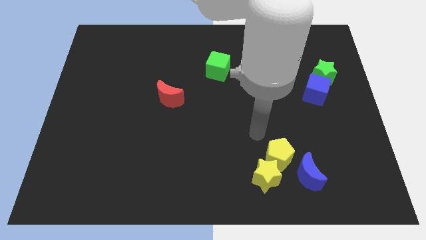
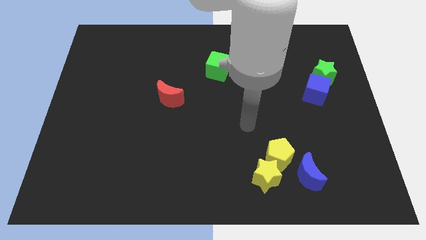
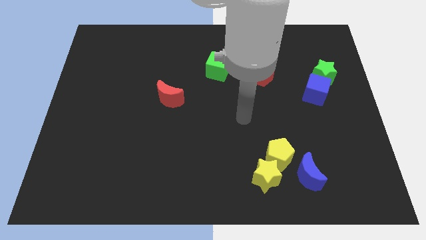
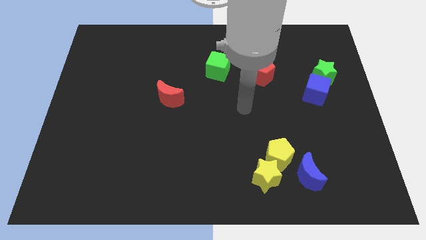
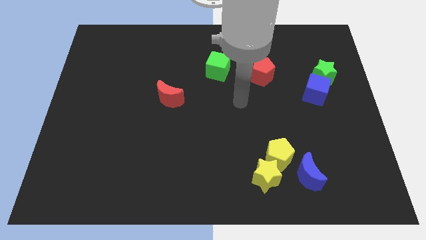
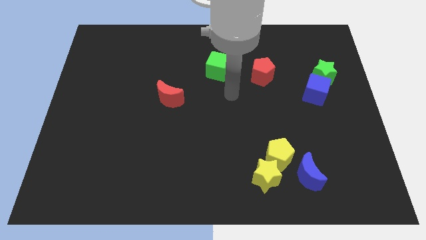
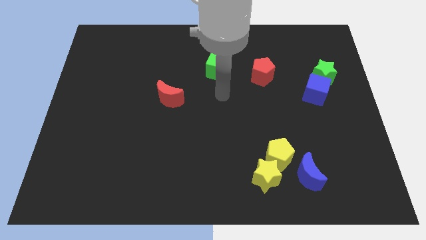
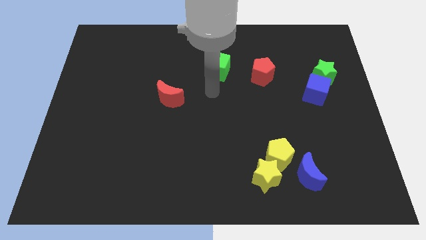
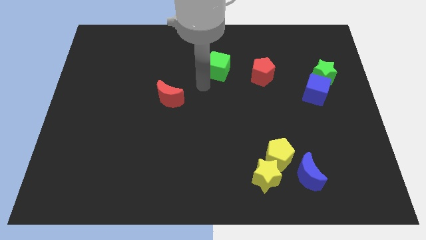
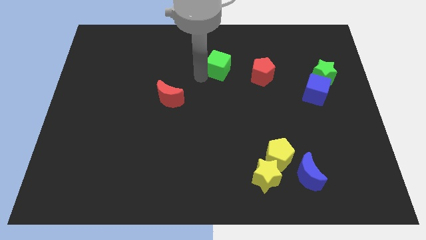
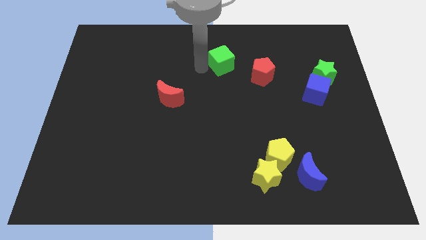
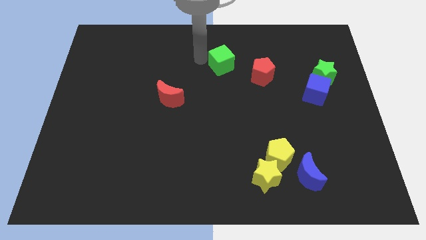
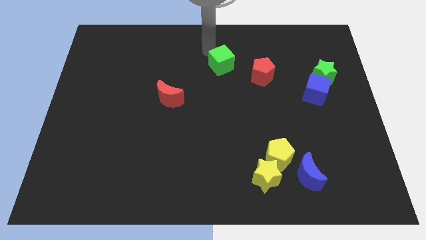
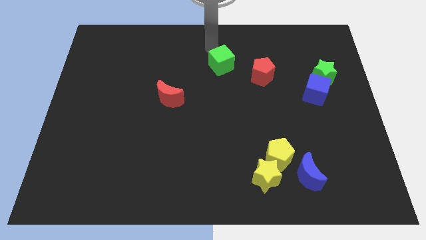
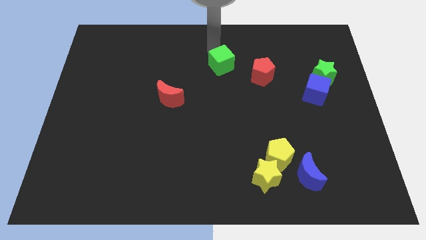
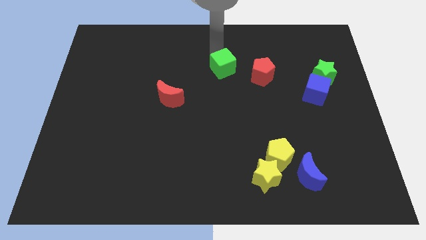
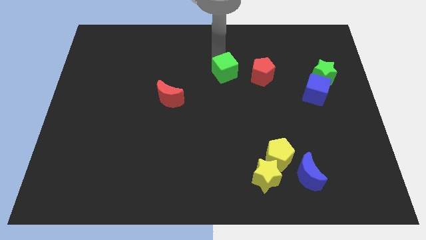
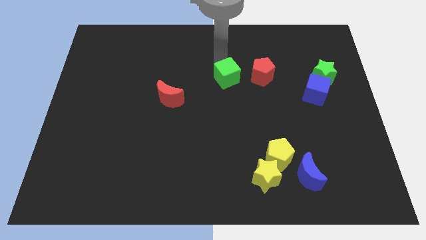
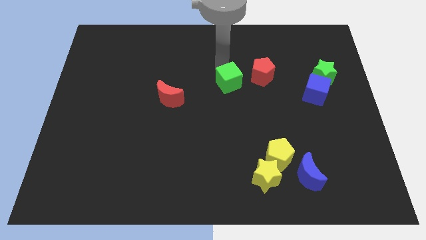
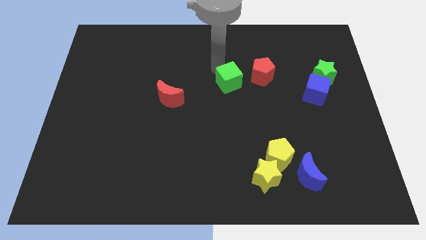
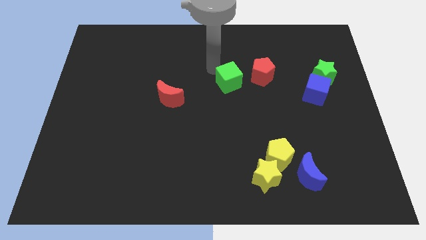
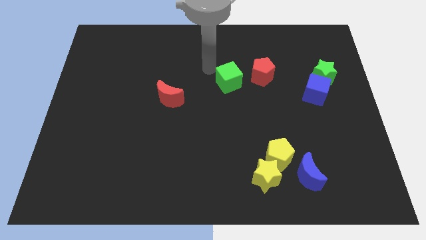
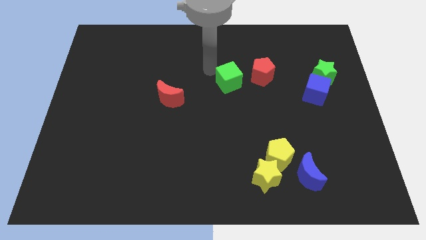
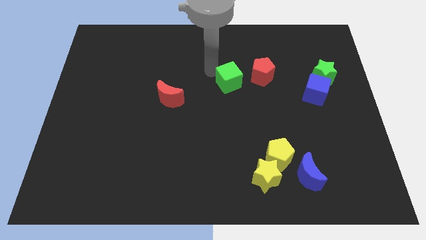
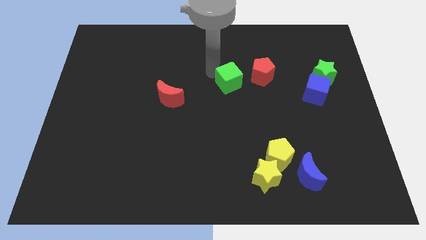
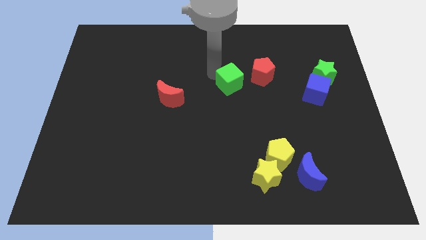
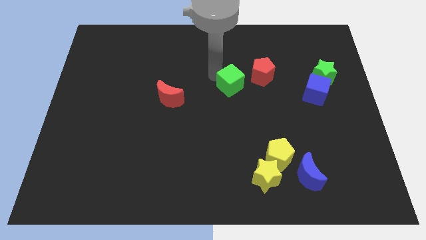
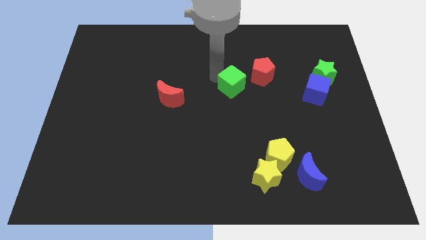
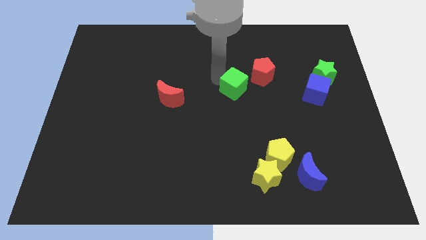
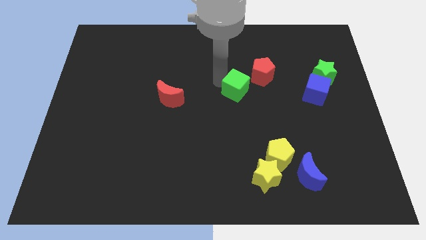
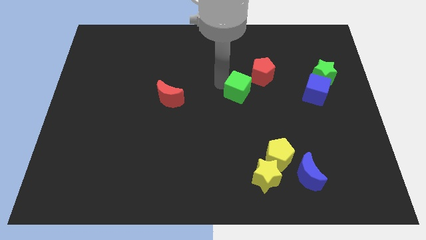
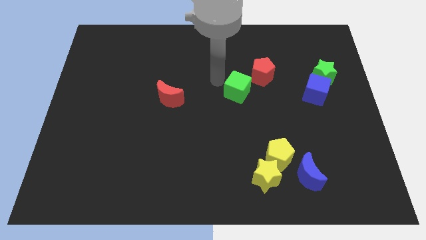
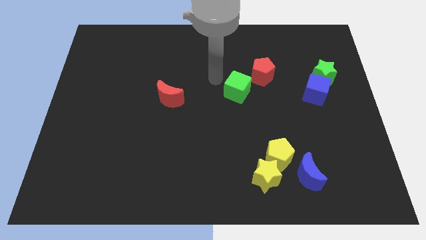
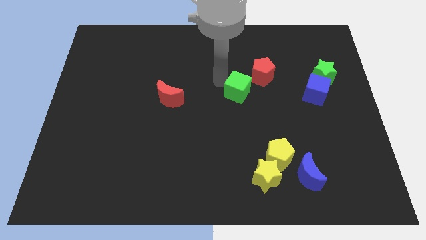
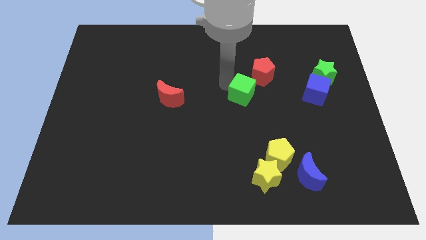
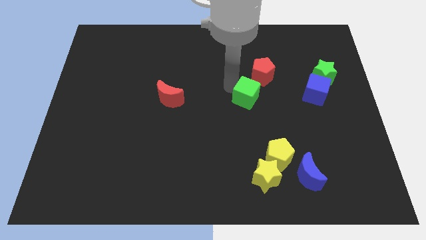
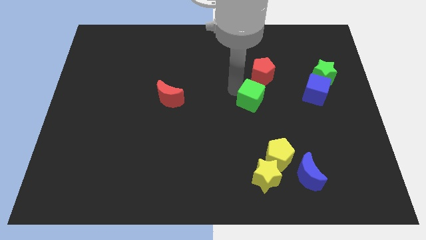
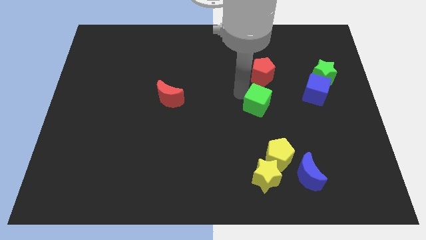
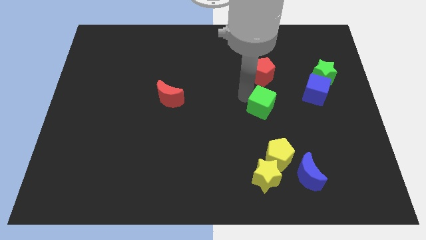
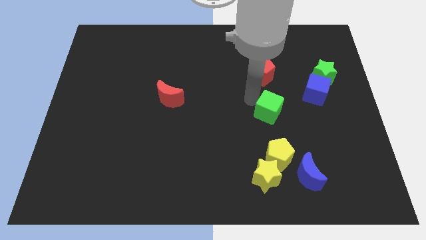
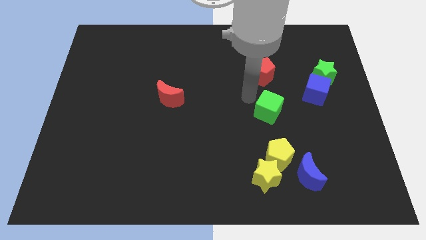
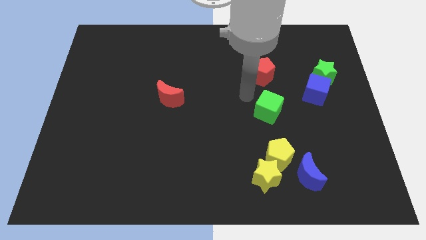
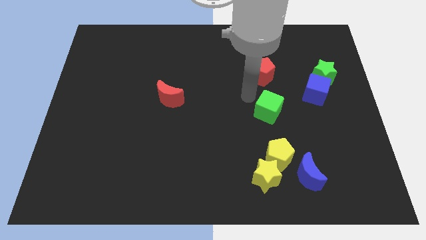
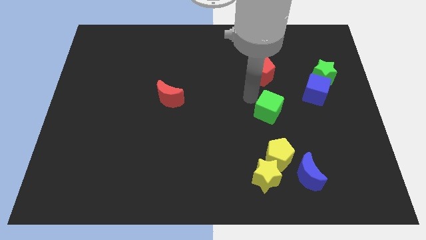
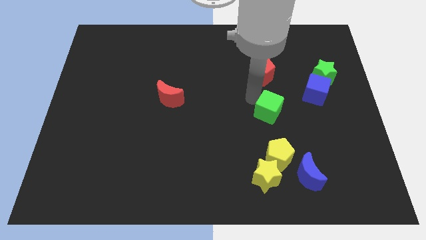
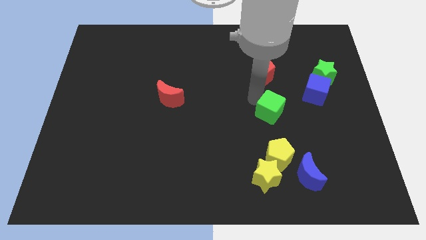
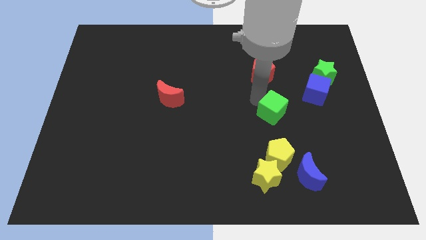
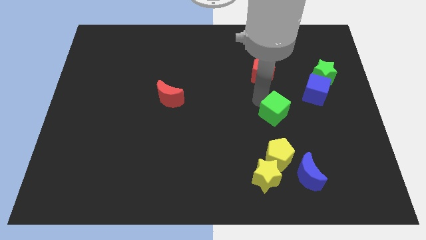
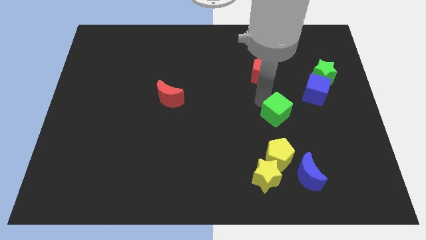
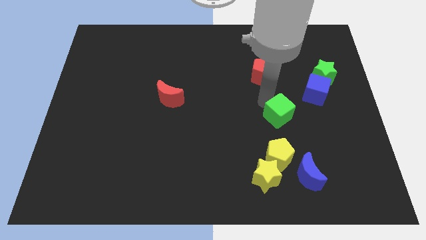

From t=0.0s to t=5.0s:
move the green cube down and then right

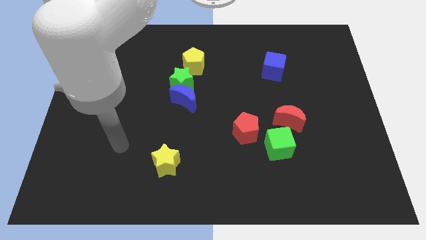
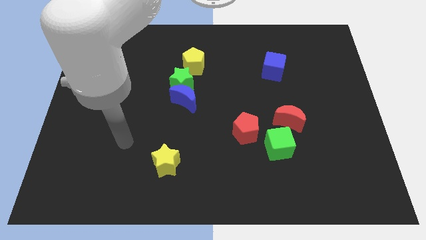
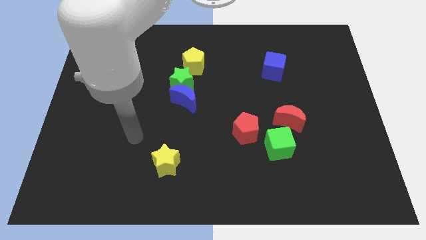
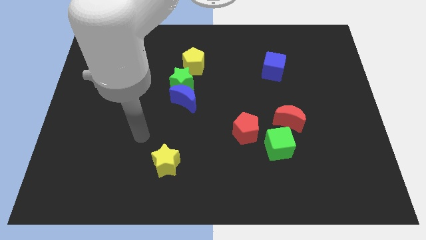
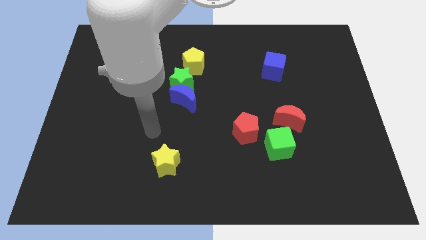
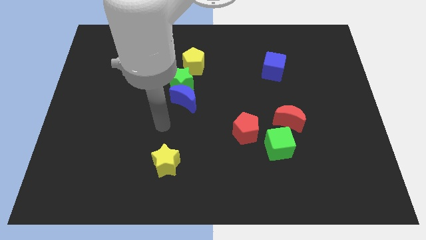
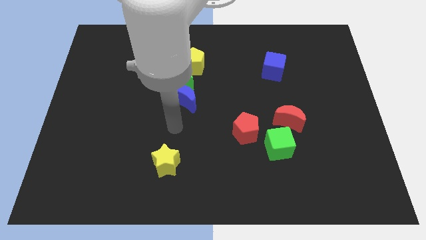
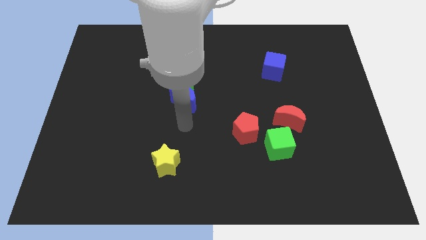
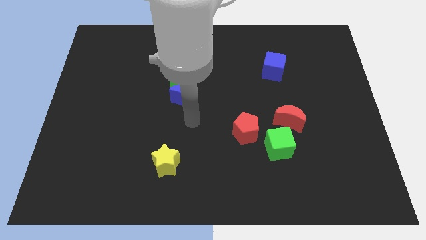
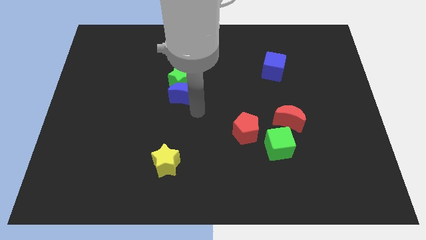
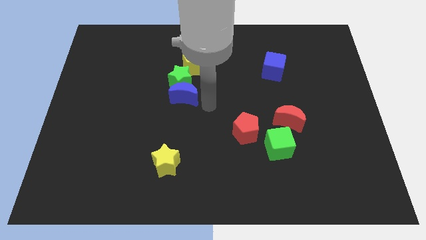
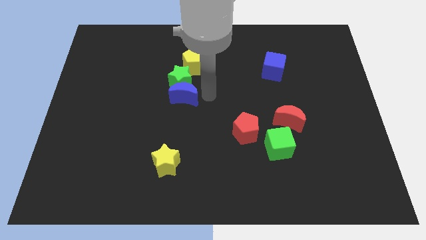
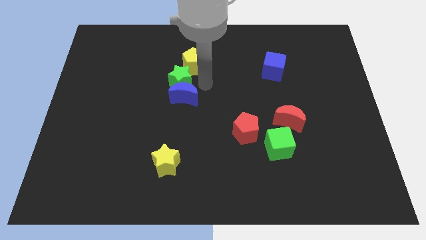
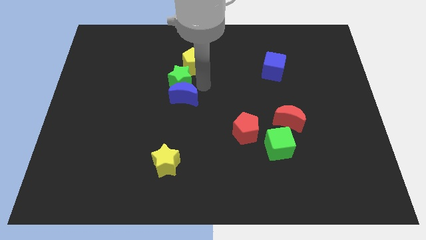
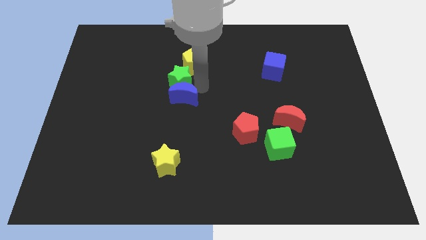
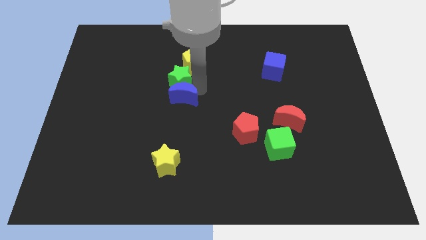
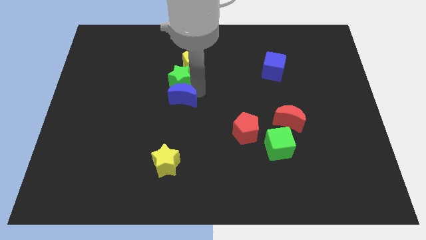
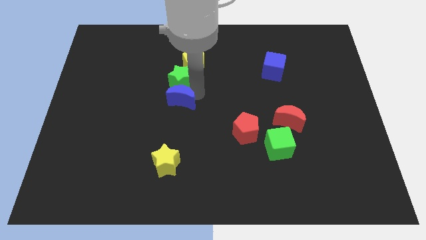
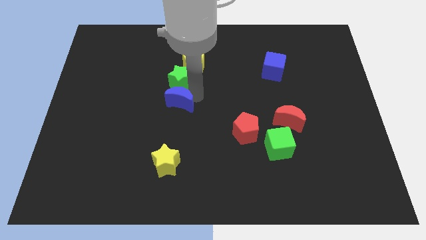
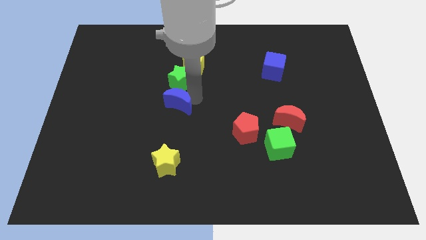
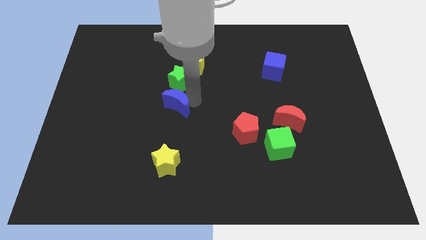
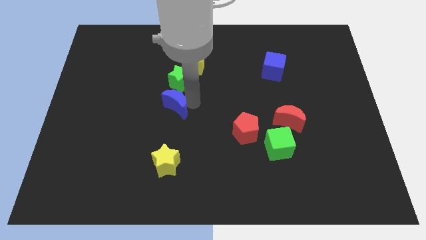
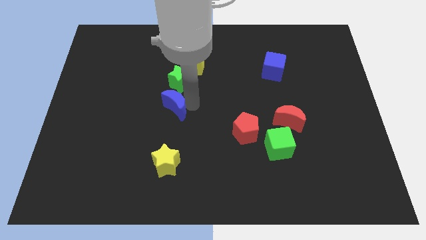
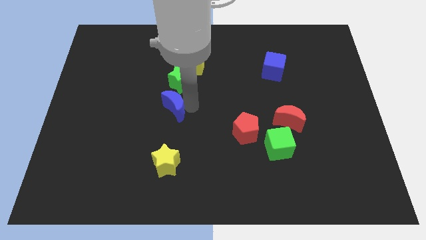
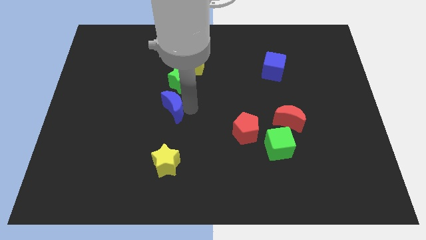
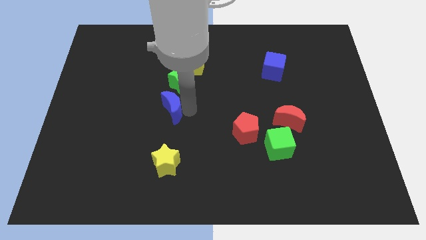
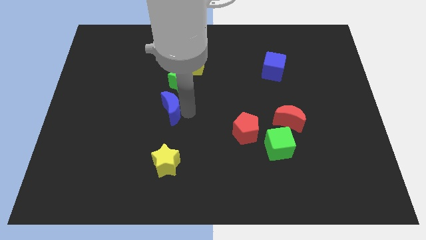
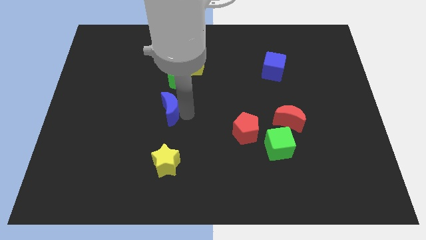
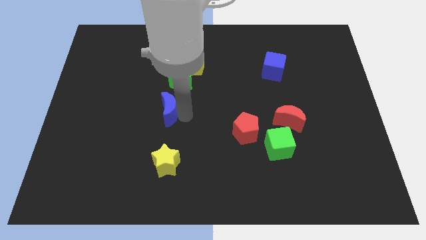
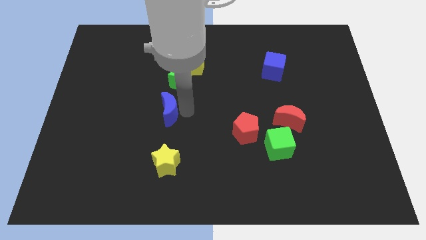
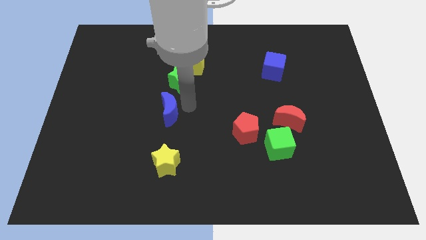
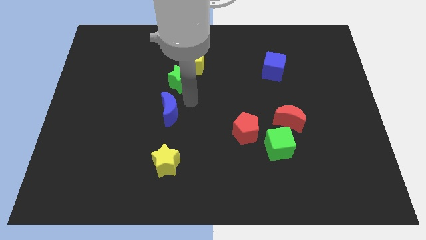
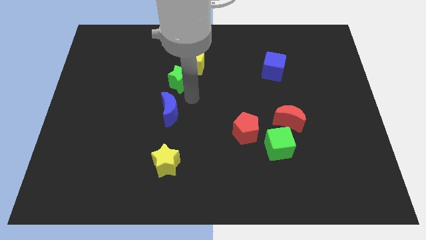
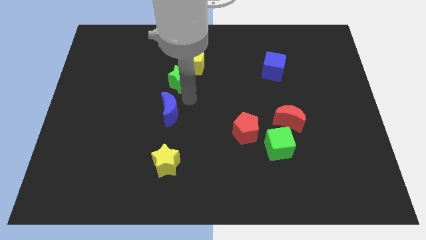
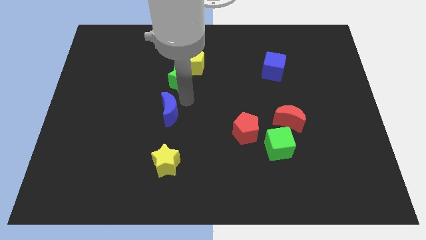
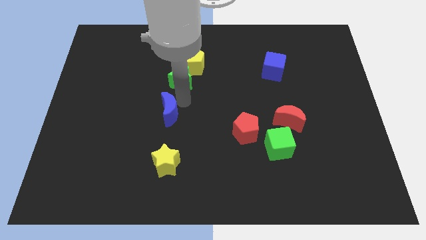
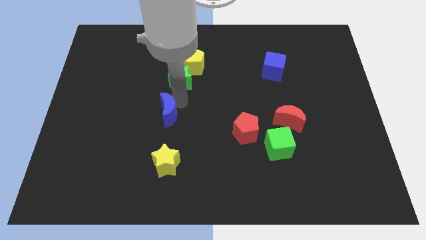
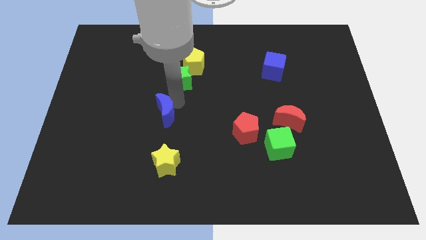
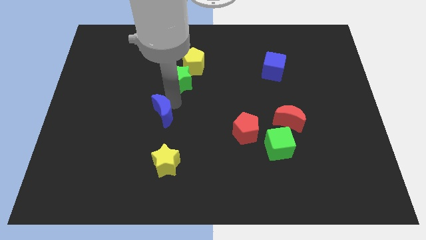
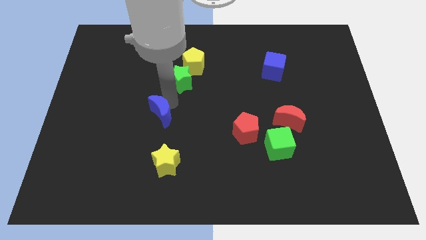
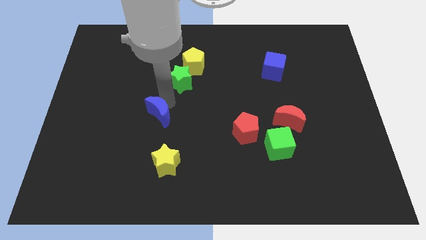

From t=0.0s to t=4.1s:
move the blue moon a little bit downwards and left
